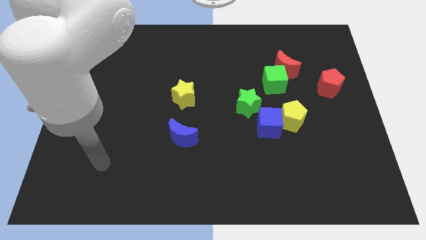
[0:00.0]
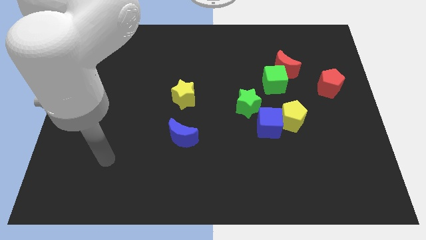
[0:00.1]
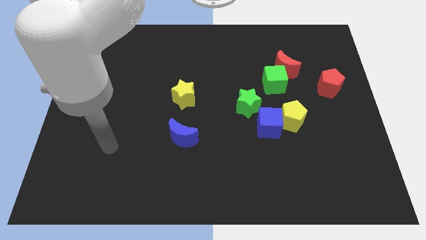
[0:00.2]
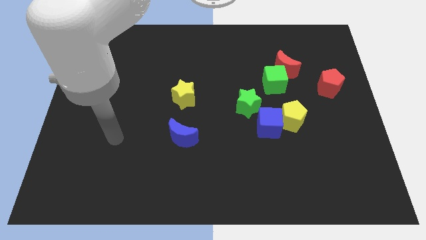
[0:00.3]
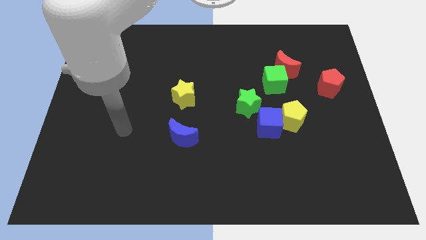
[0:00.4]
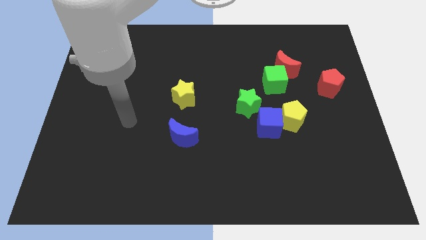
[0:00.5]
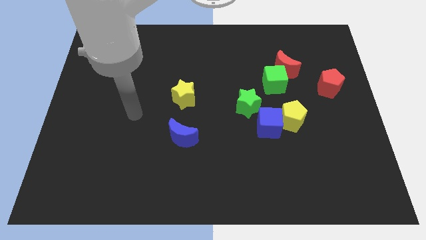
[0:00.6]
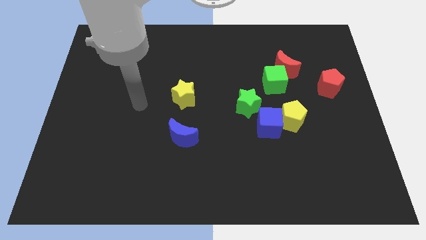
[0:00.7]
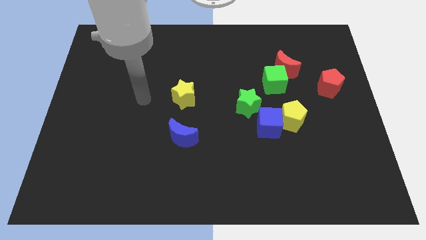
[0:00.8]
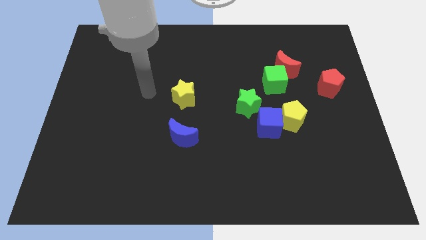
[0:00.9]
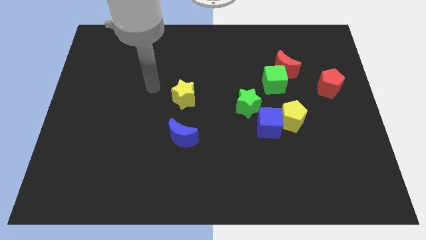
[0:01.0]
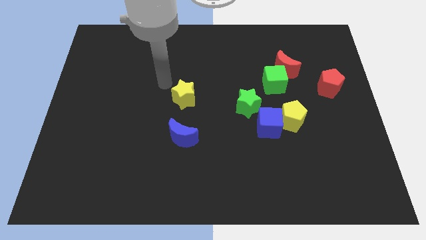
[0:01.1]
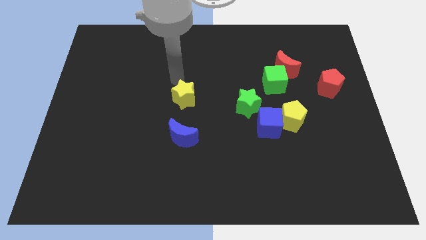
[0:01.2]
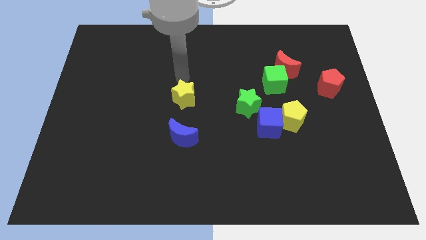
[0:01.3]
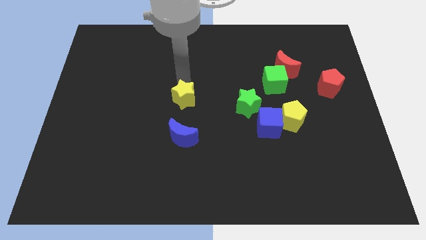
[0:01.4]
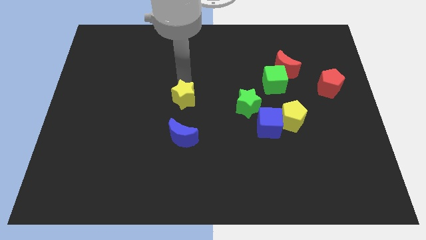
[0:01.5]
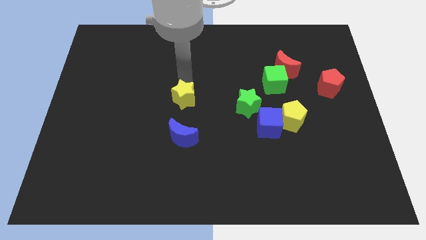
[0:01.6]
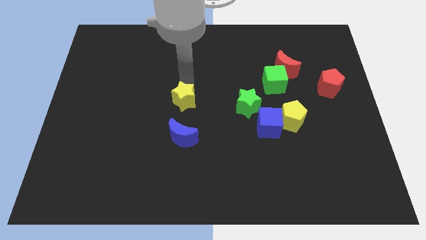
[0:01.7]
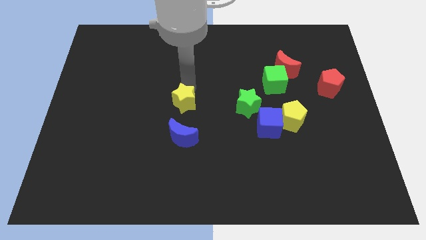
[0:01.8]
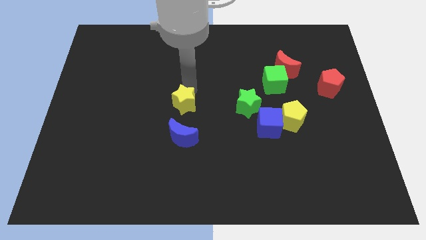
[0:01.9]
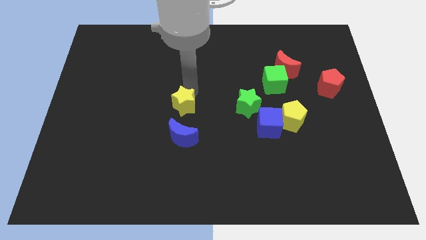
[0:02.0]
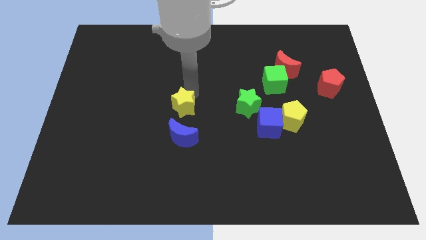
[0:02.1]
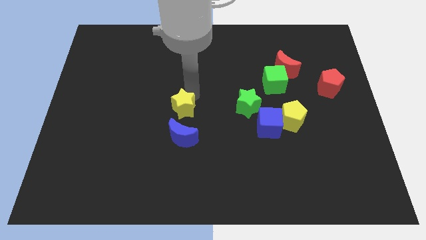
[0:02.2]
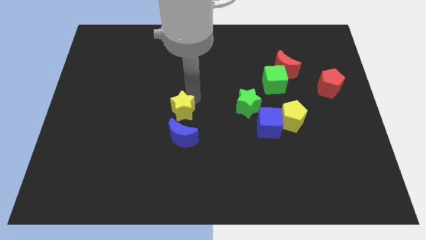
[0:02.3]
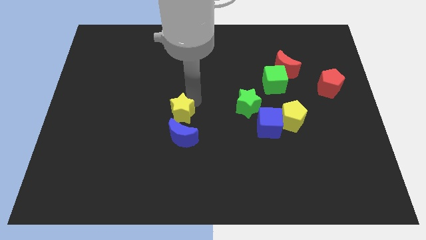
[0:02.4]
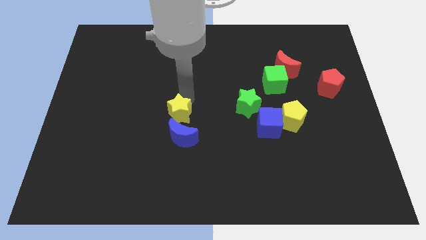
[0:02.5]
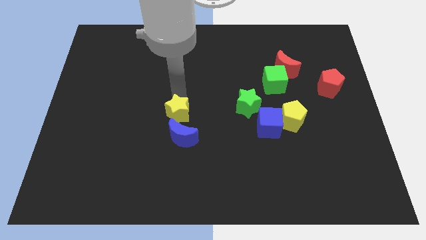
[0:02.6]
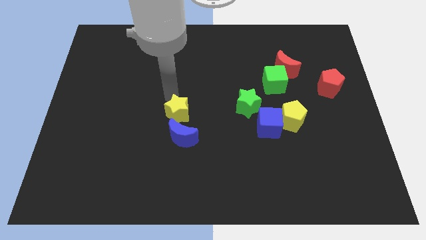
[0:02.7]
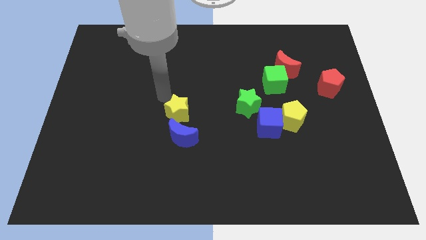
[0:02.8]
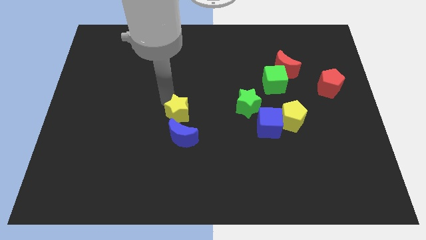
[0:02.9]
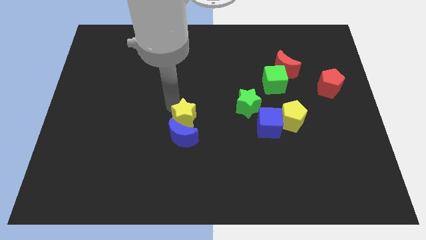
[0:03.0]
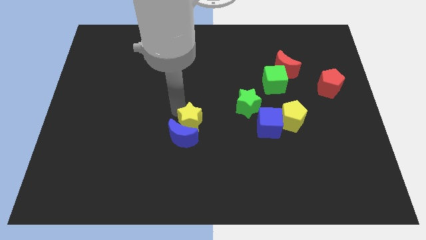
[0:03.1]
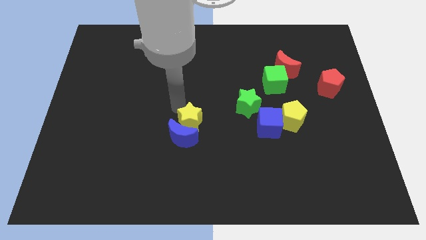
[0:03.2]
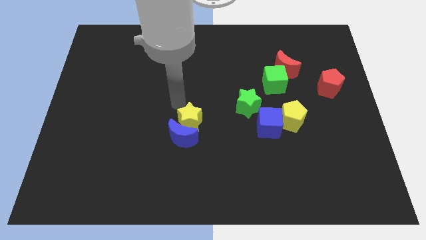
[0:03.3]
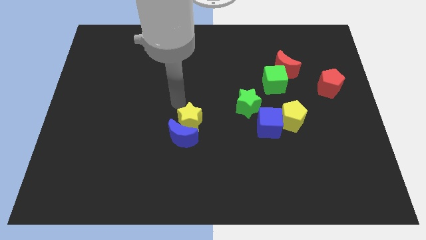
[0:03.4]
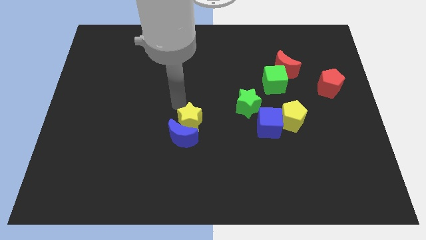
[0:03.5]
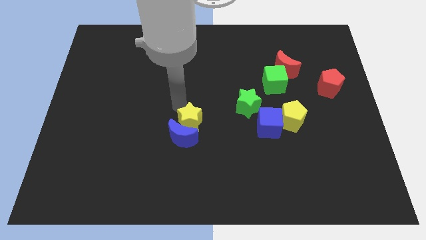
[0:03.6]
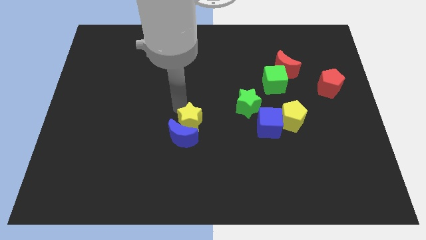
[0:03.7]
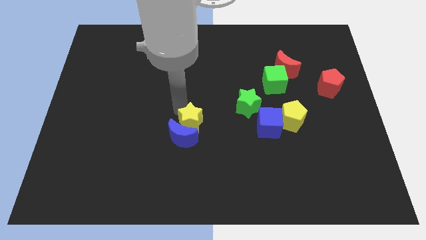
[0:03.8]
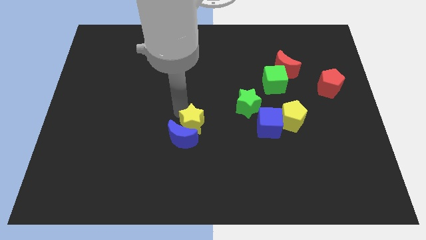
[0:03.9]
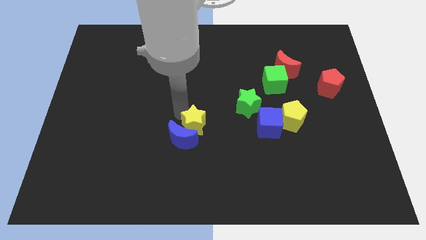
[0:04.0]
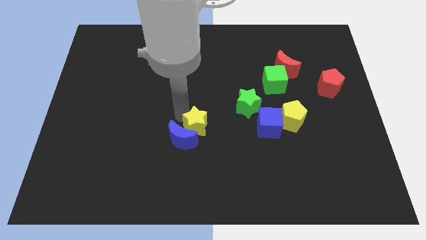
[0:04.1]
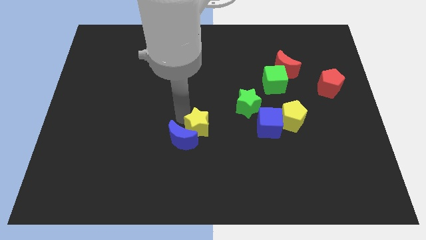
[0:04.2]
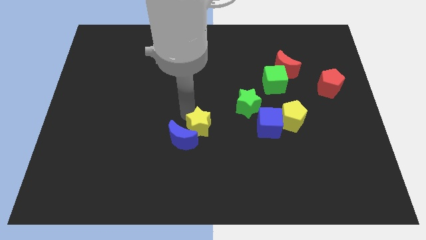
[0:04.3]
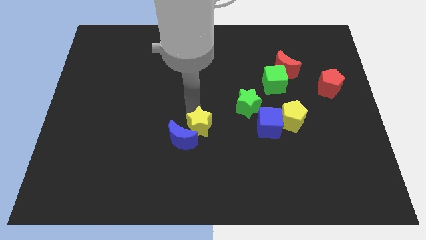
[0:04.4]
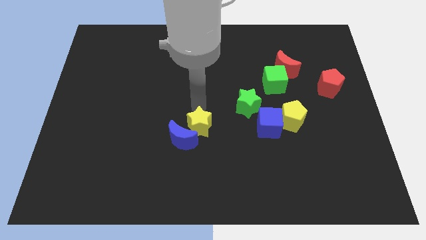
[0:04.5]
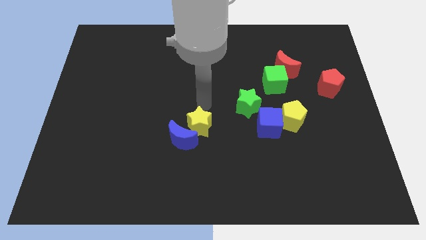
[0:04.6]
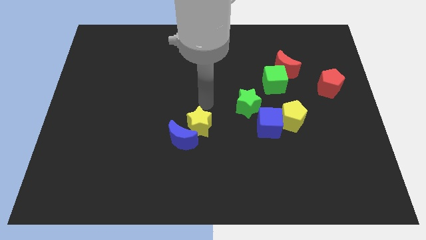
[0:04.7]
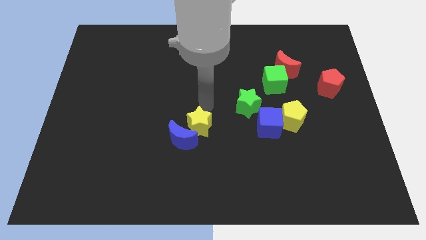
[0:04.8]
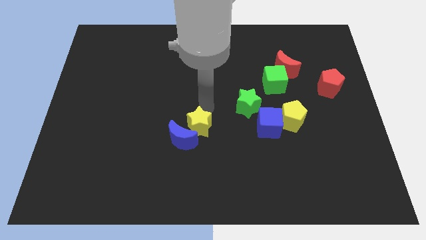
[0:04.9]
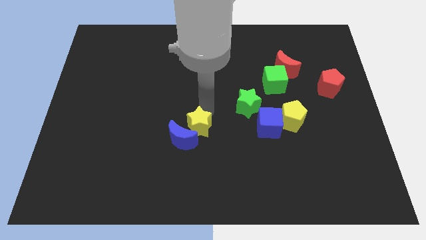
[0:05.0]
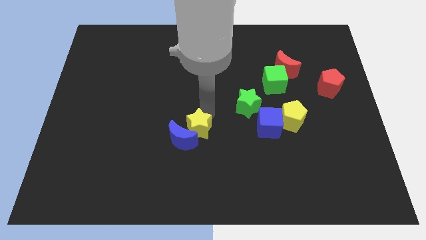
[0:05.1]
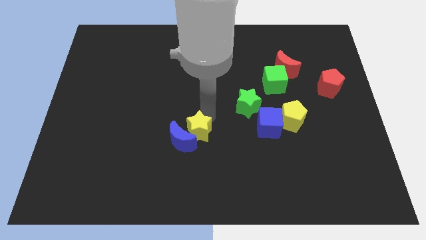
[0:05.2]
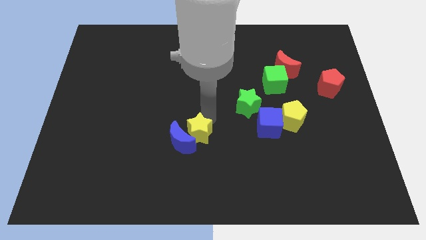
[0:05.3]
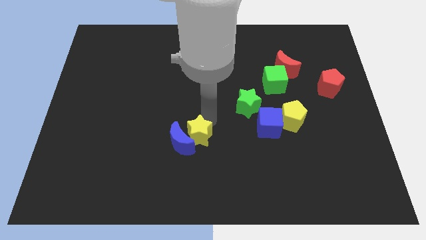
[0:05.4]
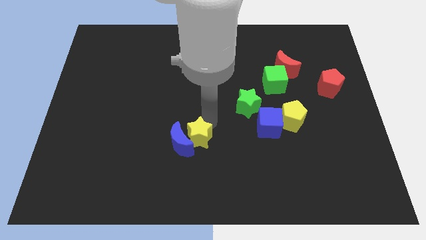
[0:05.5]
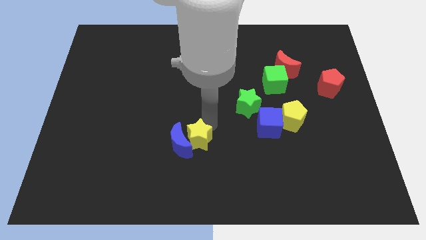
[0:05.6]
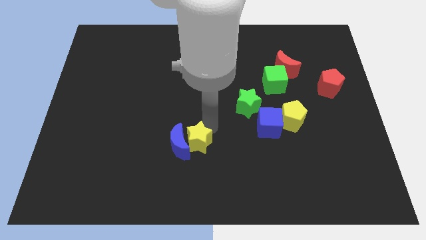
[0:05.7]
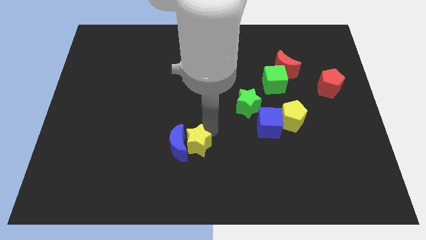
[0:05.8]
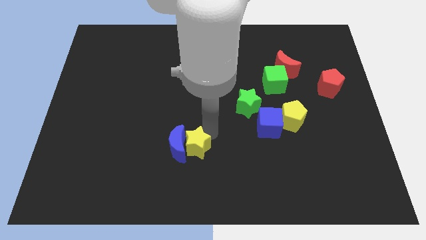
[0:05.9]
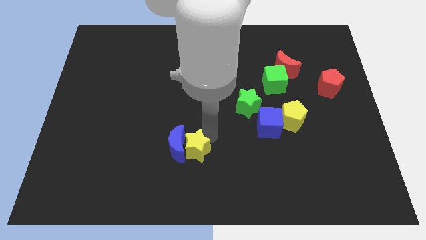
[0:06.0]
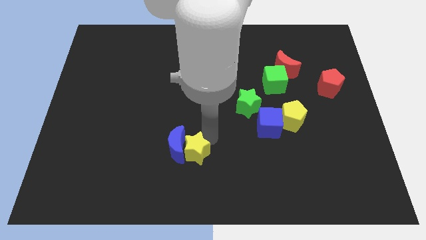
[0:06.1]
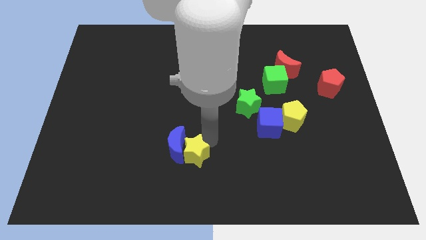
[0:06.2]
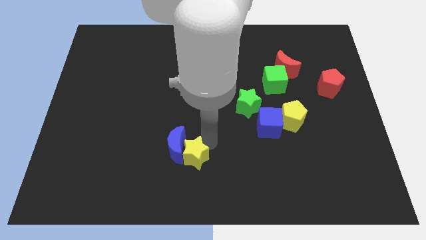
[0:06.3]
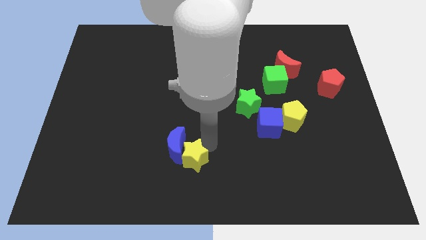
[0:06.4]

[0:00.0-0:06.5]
slide the yellow star to the bottom of the blue moon
